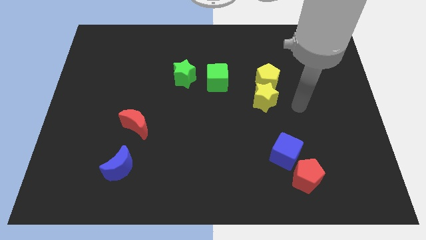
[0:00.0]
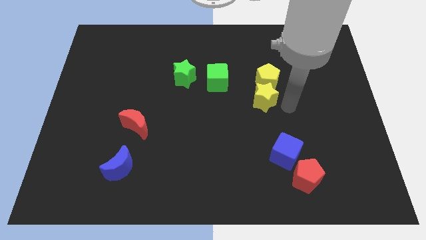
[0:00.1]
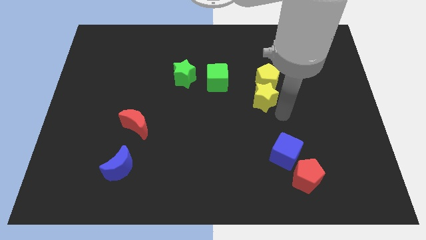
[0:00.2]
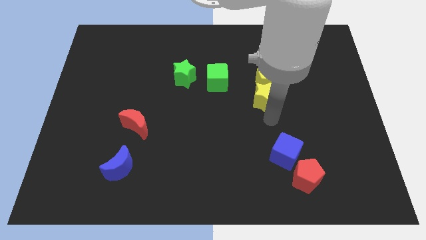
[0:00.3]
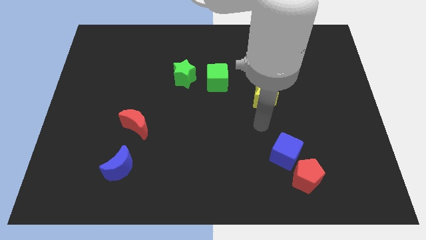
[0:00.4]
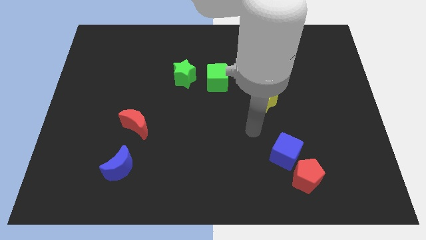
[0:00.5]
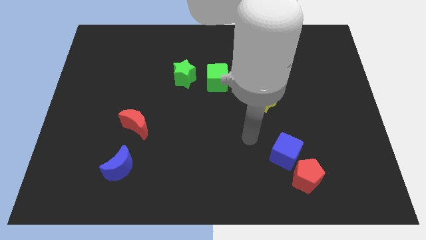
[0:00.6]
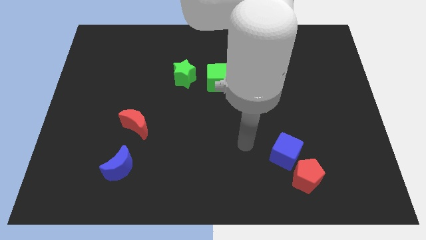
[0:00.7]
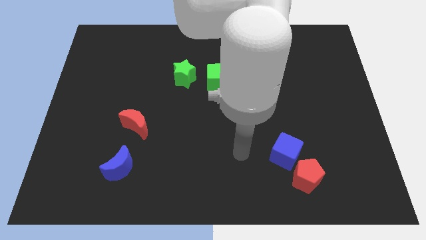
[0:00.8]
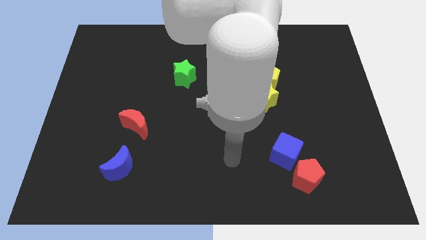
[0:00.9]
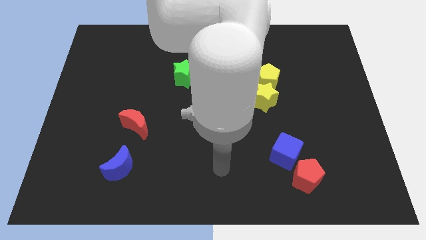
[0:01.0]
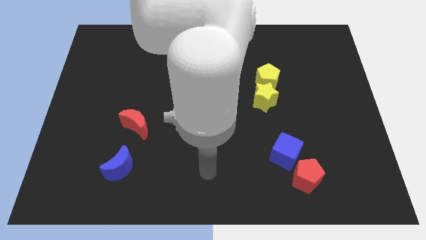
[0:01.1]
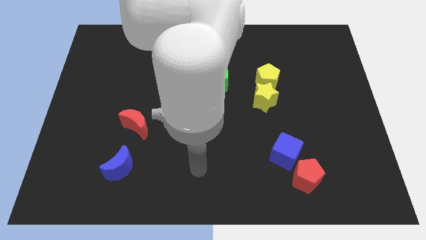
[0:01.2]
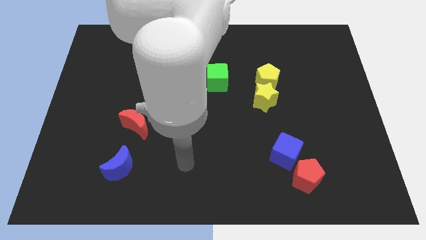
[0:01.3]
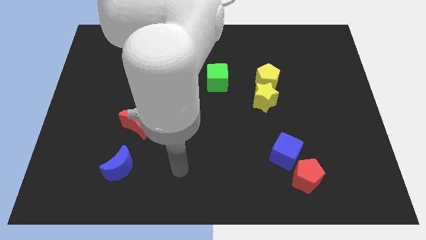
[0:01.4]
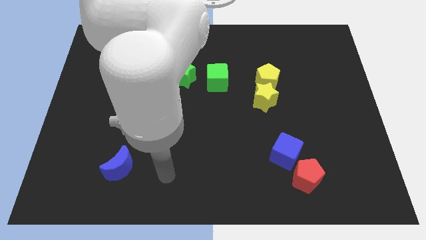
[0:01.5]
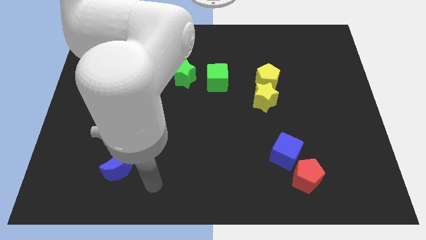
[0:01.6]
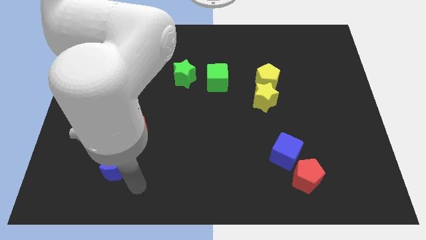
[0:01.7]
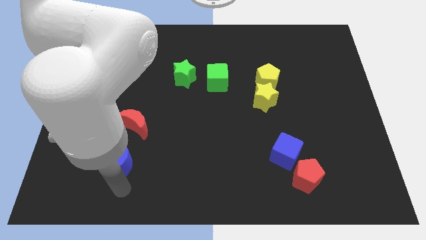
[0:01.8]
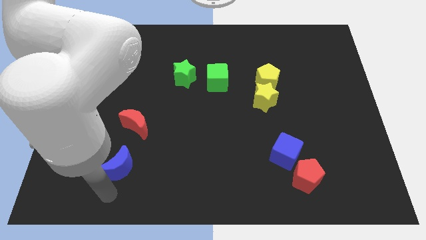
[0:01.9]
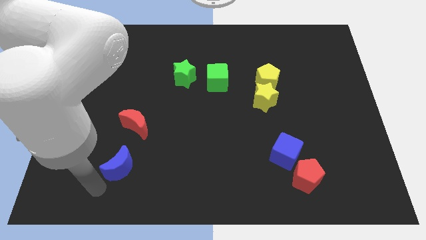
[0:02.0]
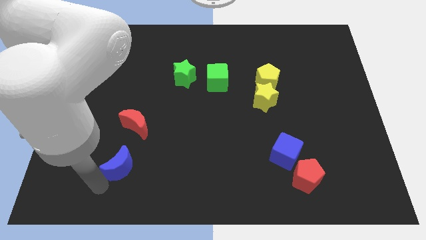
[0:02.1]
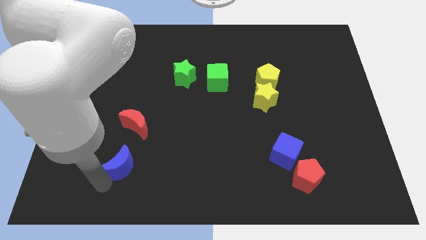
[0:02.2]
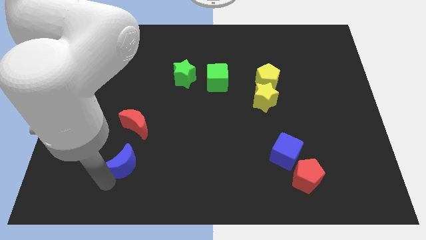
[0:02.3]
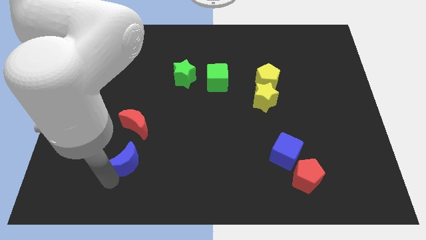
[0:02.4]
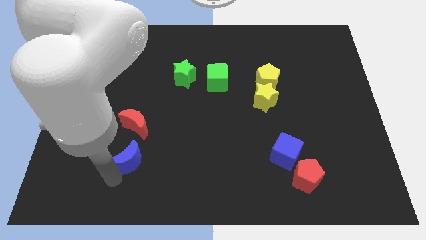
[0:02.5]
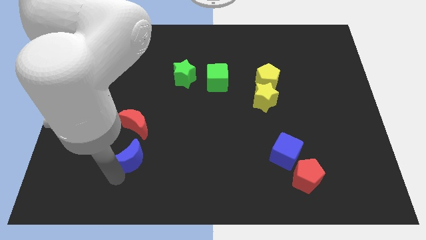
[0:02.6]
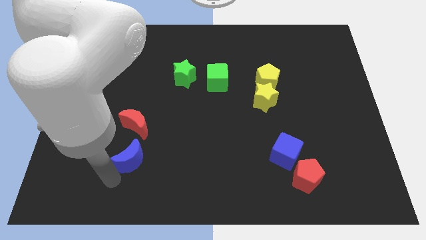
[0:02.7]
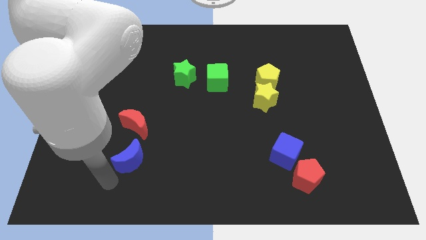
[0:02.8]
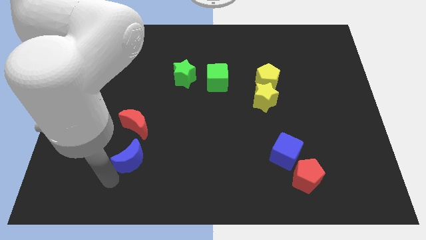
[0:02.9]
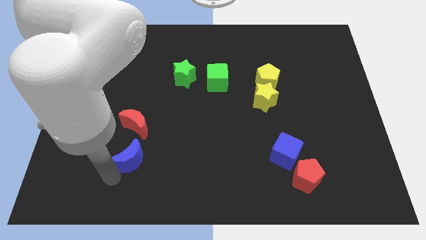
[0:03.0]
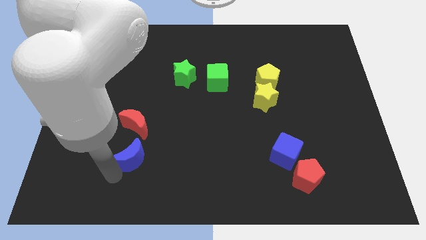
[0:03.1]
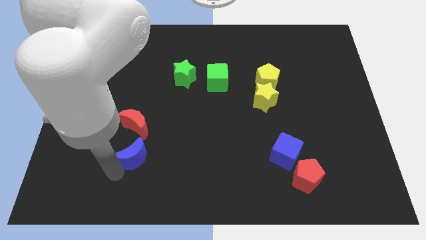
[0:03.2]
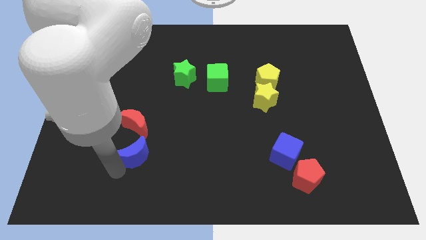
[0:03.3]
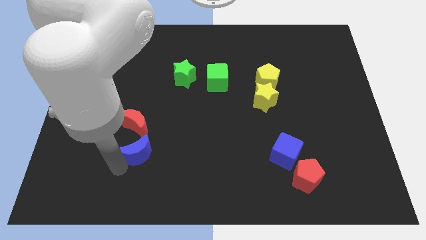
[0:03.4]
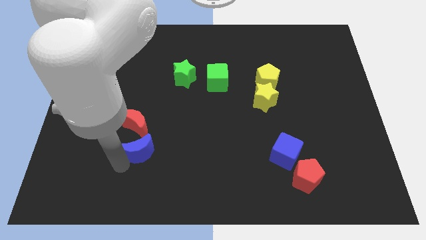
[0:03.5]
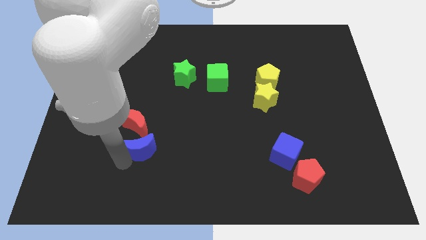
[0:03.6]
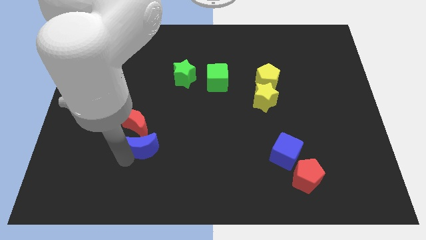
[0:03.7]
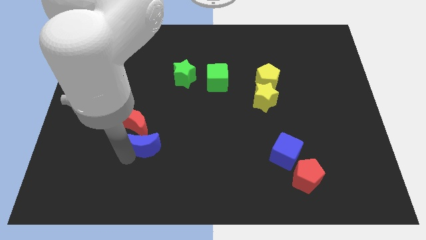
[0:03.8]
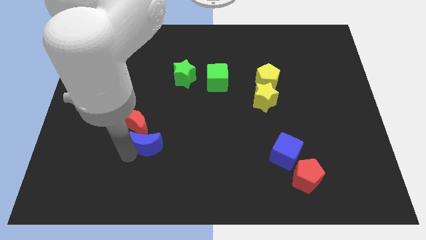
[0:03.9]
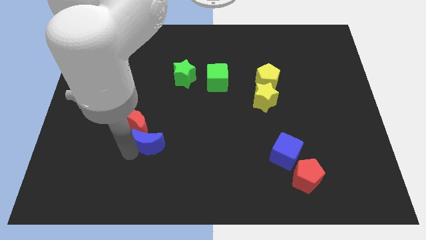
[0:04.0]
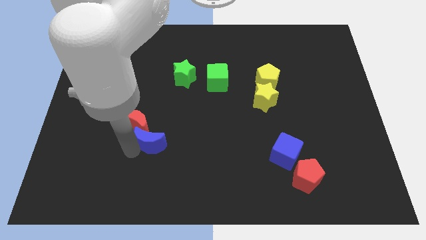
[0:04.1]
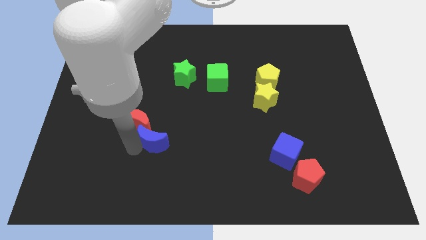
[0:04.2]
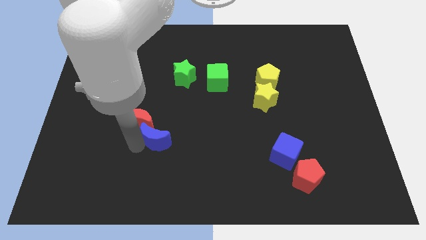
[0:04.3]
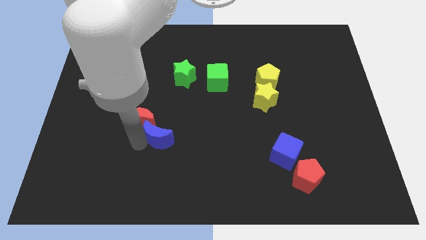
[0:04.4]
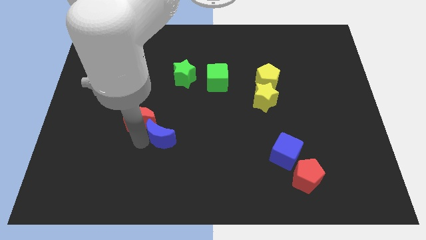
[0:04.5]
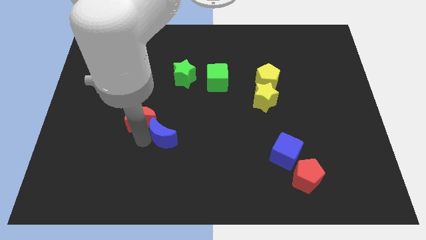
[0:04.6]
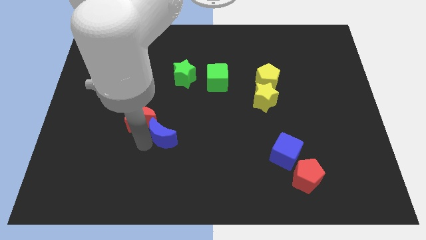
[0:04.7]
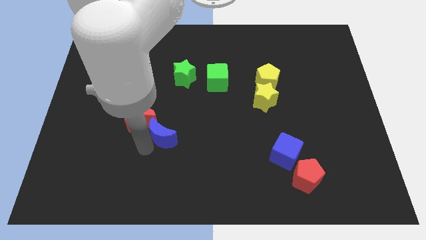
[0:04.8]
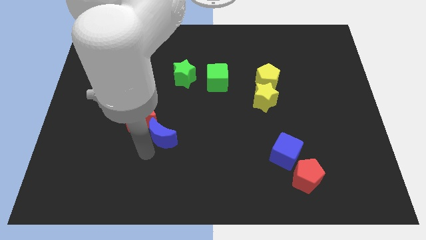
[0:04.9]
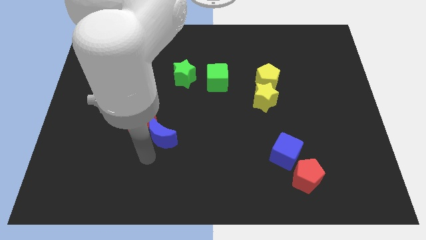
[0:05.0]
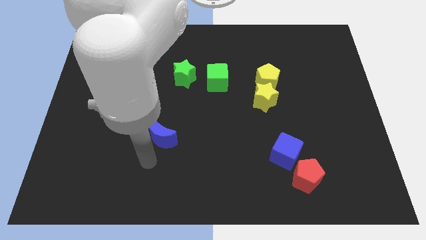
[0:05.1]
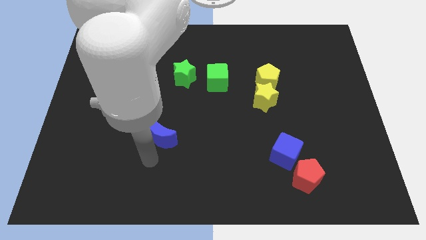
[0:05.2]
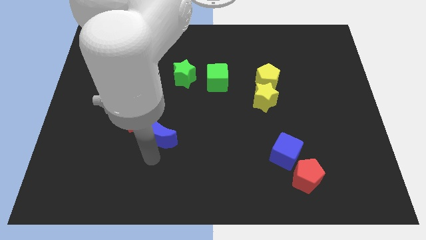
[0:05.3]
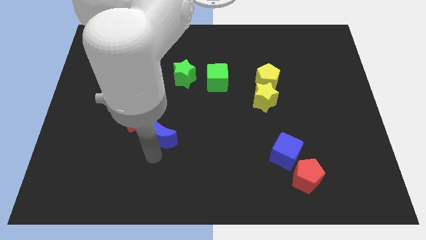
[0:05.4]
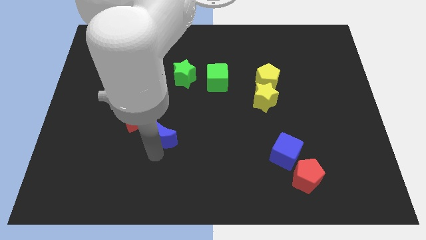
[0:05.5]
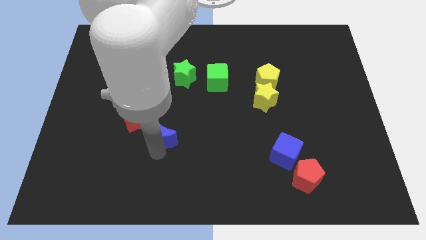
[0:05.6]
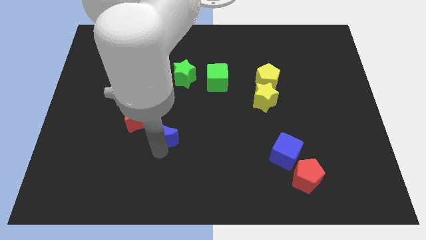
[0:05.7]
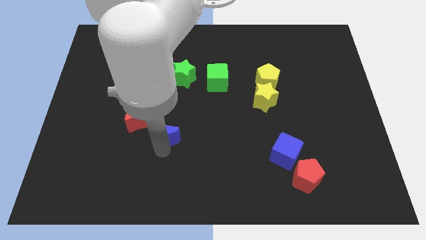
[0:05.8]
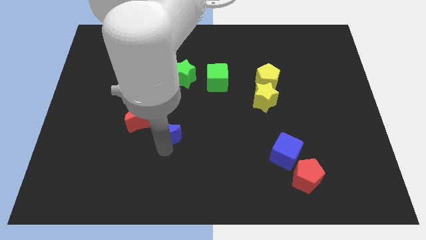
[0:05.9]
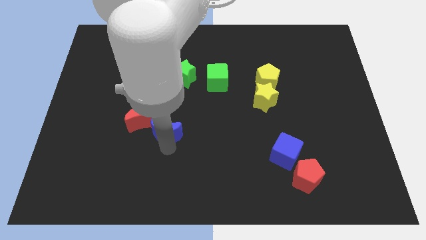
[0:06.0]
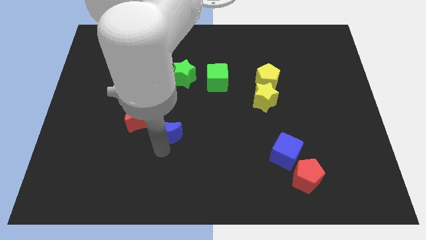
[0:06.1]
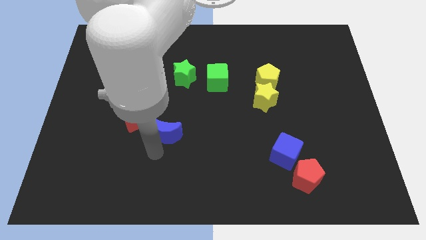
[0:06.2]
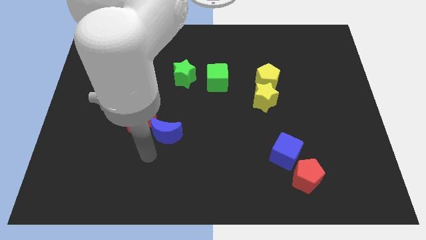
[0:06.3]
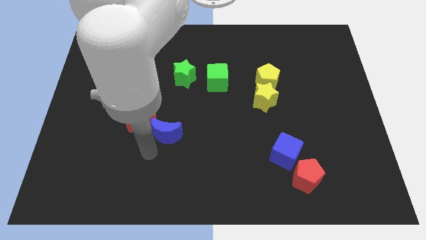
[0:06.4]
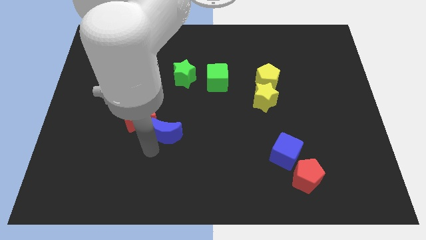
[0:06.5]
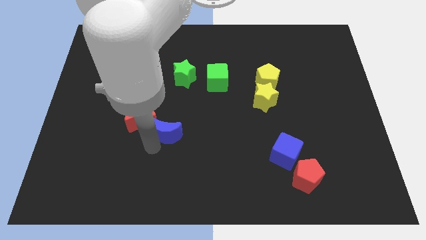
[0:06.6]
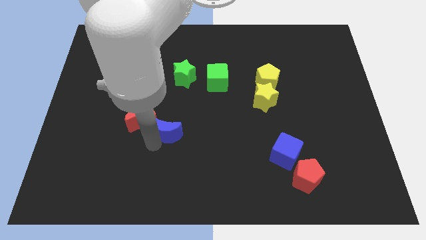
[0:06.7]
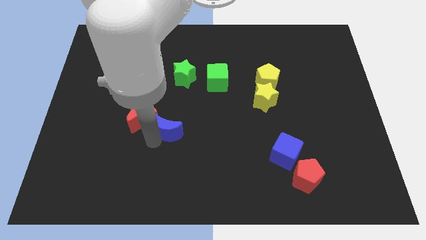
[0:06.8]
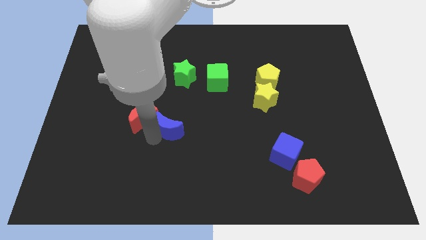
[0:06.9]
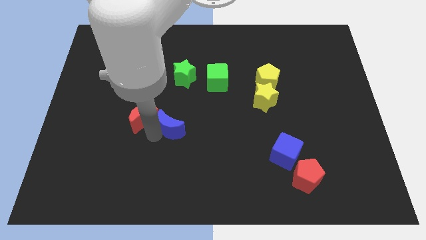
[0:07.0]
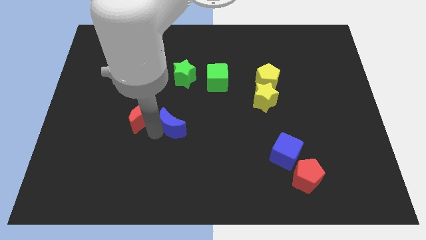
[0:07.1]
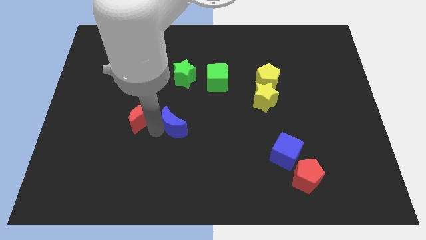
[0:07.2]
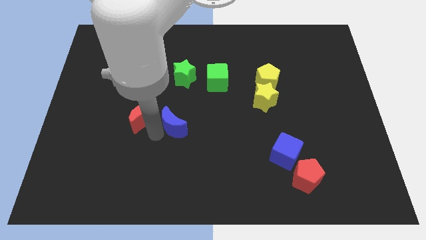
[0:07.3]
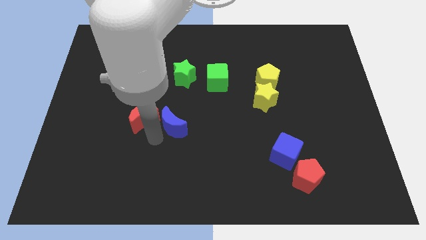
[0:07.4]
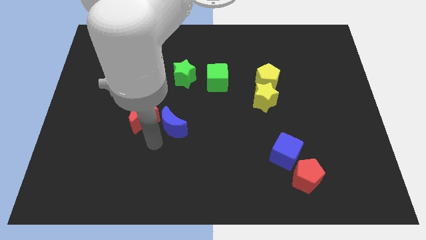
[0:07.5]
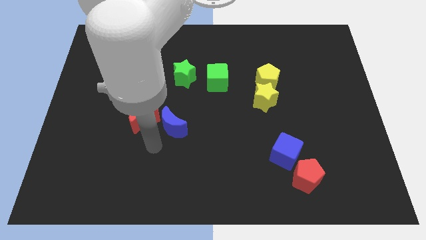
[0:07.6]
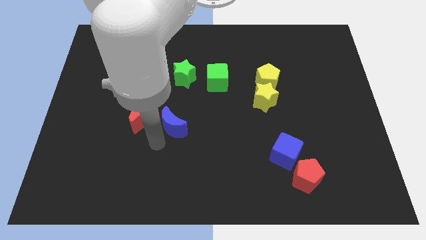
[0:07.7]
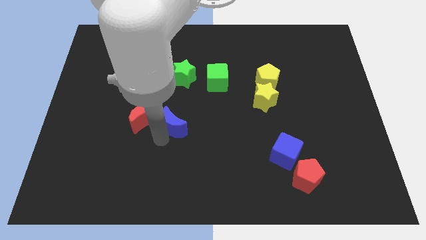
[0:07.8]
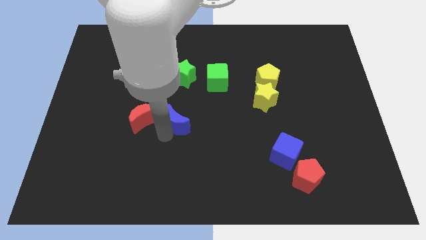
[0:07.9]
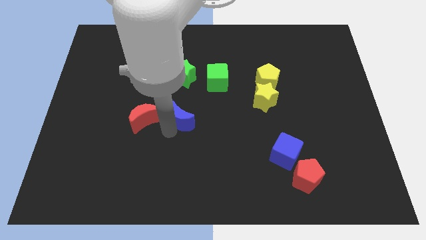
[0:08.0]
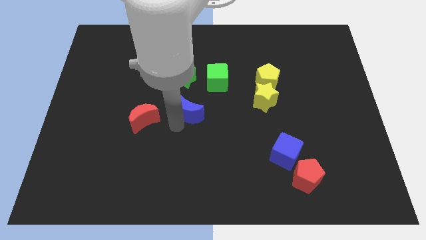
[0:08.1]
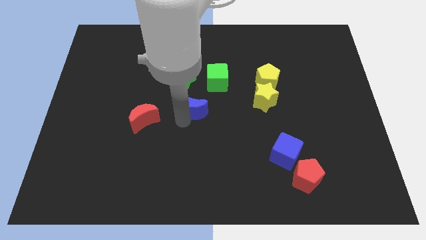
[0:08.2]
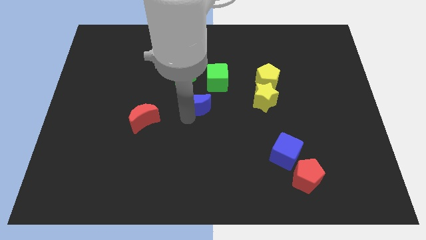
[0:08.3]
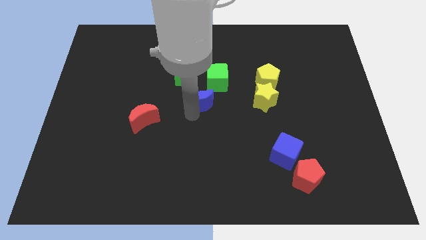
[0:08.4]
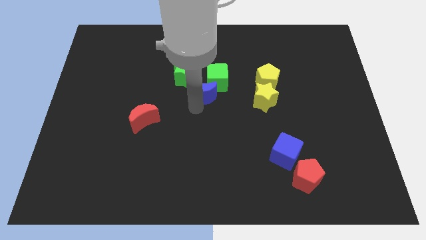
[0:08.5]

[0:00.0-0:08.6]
move the blue moon close to the green cube
